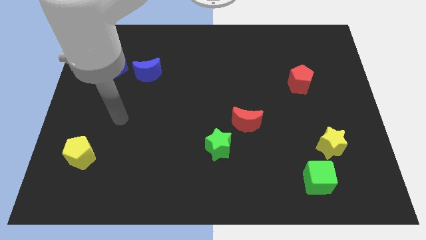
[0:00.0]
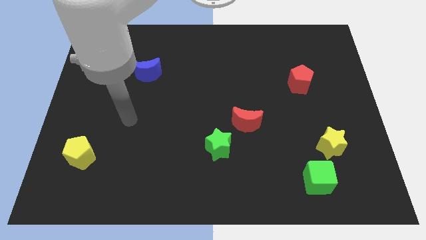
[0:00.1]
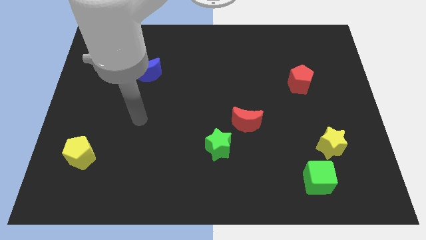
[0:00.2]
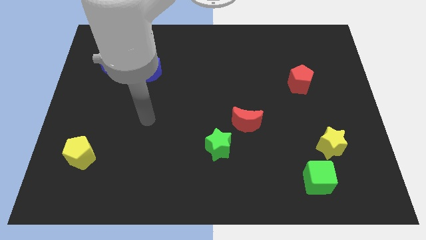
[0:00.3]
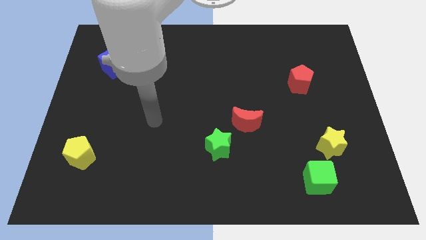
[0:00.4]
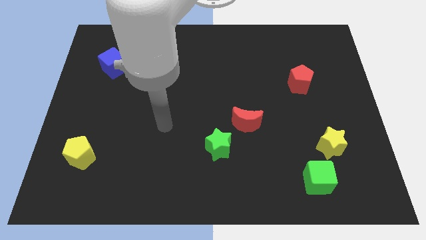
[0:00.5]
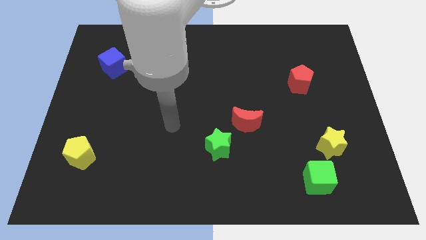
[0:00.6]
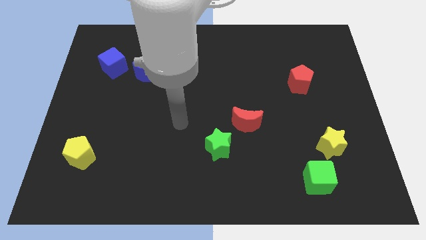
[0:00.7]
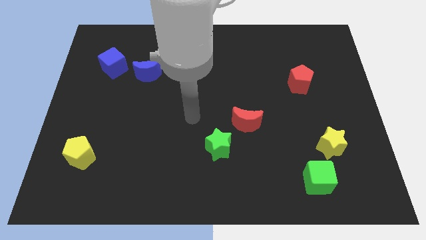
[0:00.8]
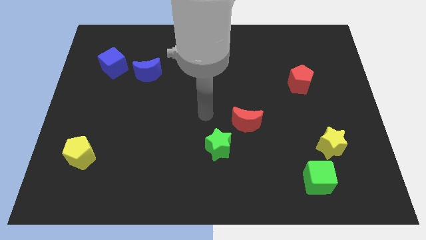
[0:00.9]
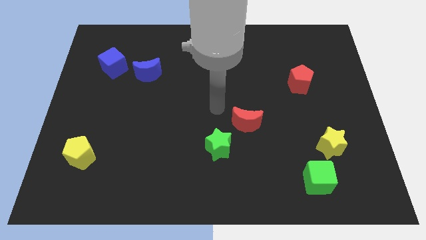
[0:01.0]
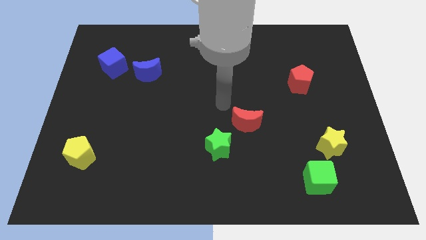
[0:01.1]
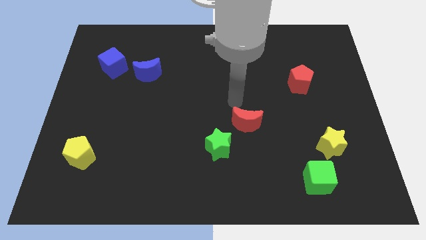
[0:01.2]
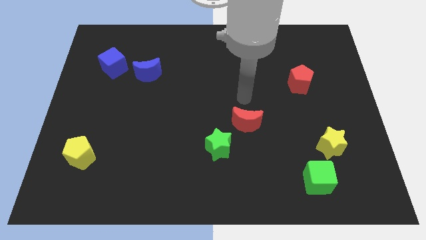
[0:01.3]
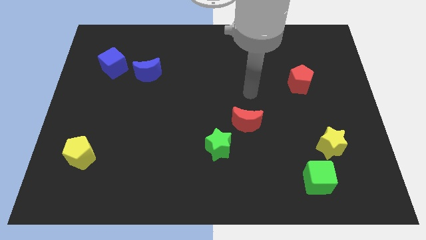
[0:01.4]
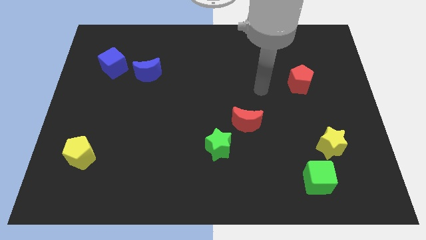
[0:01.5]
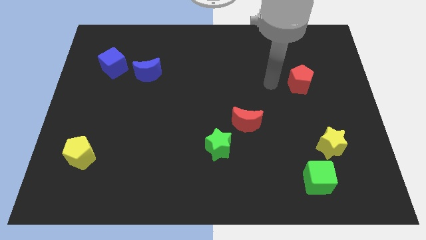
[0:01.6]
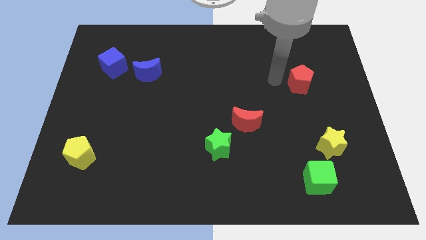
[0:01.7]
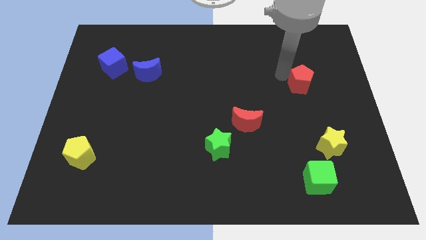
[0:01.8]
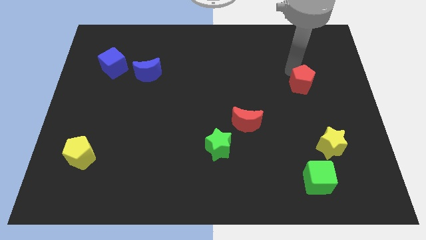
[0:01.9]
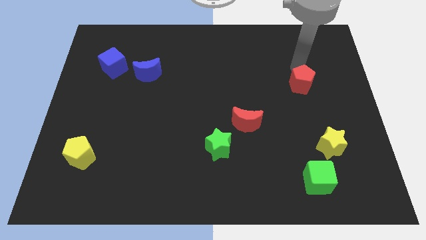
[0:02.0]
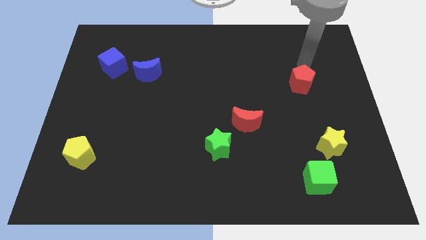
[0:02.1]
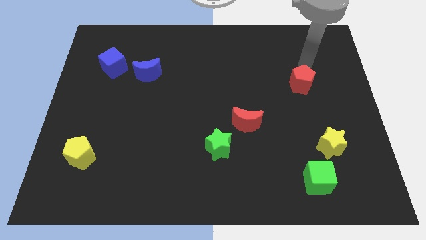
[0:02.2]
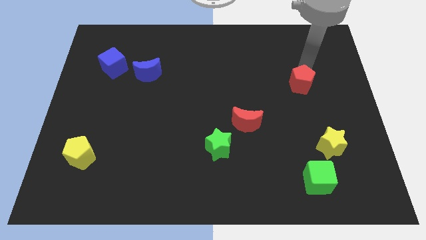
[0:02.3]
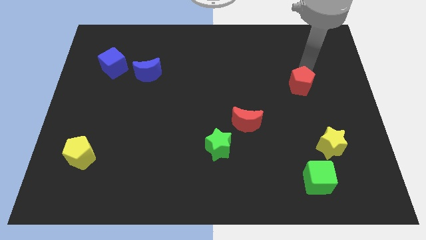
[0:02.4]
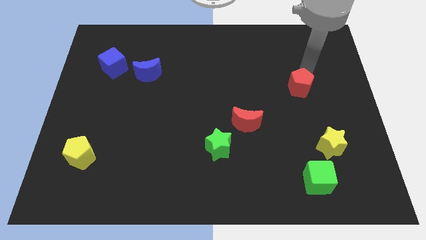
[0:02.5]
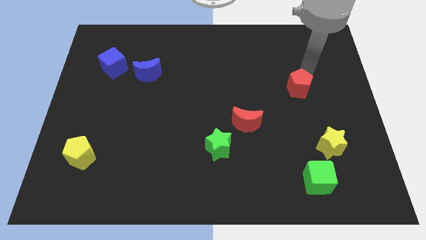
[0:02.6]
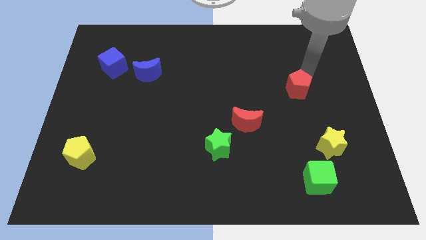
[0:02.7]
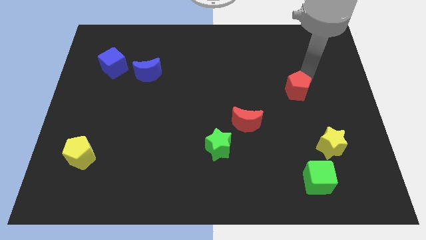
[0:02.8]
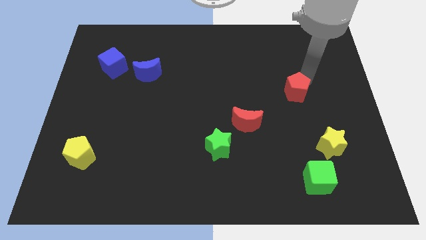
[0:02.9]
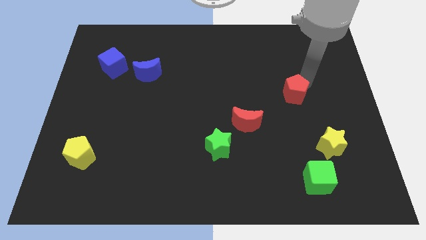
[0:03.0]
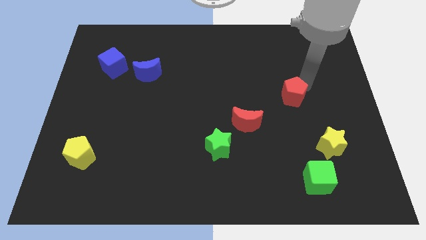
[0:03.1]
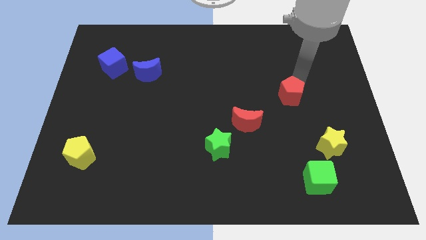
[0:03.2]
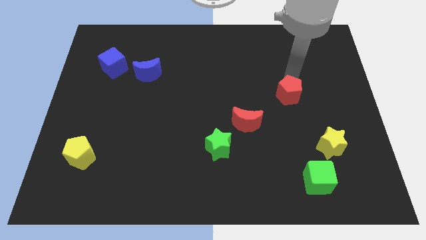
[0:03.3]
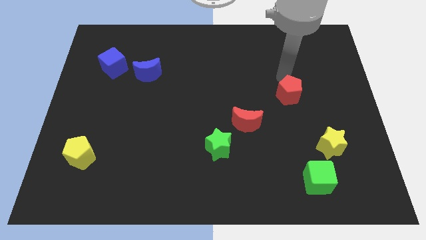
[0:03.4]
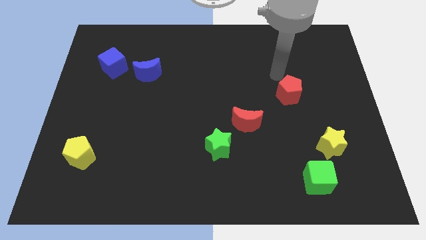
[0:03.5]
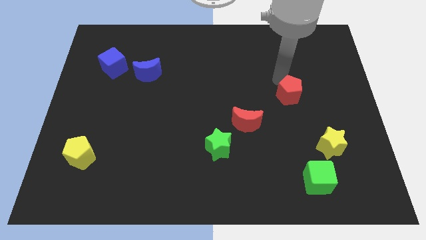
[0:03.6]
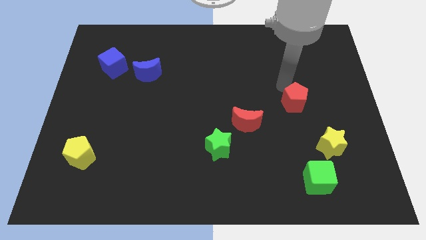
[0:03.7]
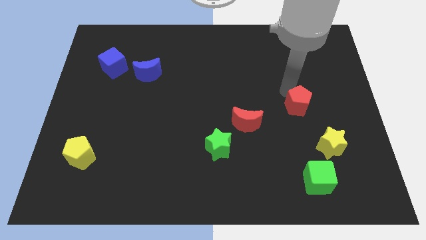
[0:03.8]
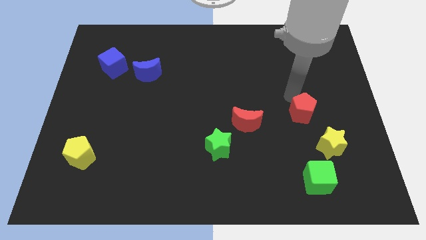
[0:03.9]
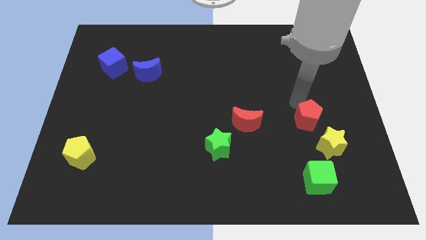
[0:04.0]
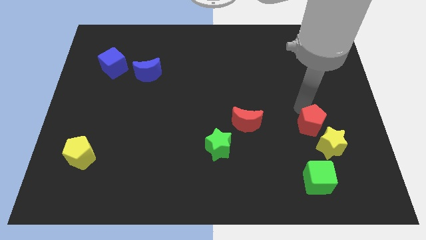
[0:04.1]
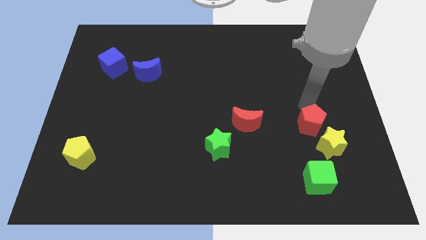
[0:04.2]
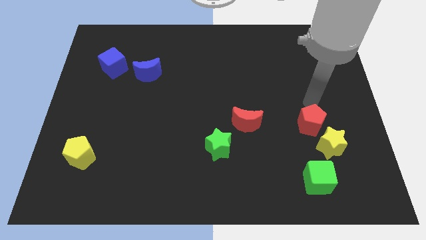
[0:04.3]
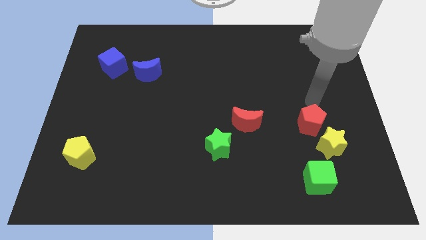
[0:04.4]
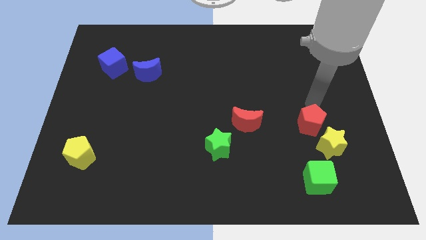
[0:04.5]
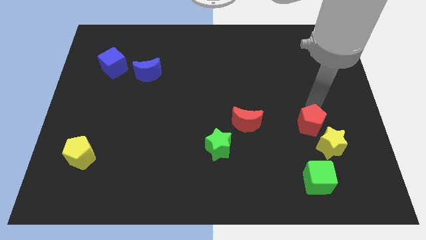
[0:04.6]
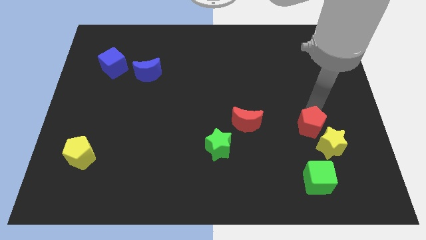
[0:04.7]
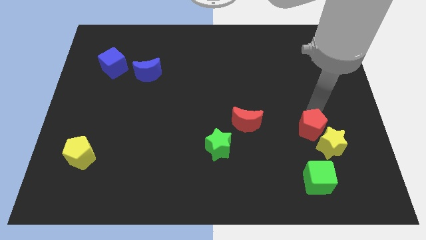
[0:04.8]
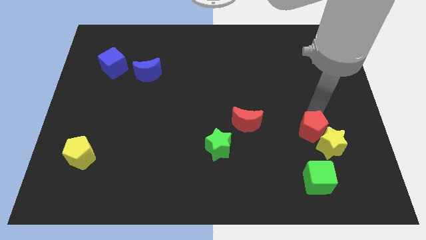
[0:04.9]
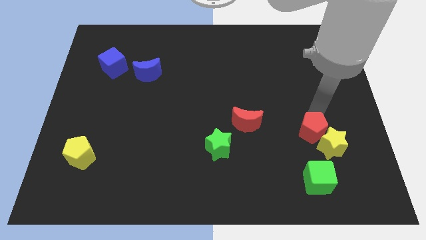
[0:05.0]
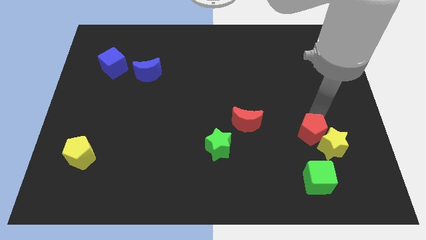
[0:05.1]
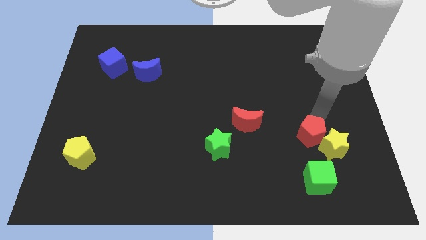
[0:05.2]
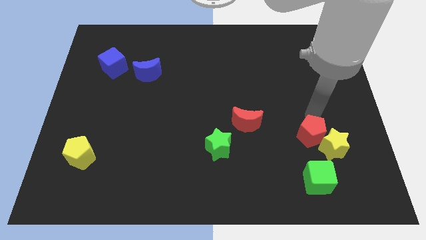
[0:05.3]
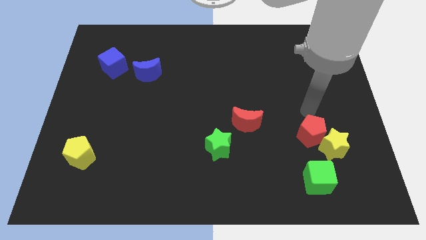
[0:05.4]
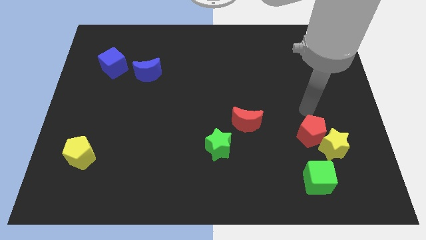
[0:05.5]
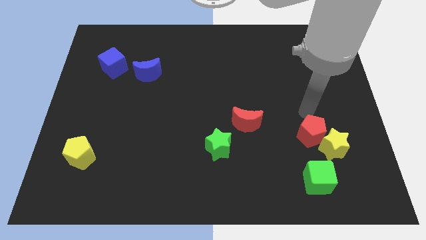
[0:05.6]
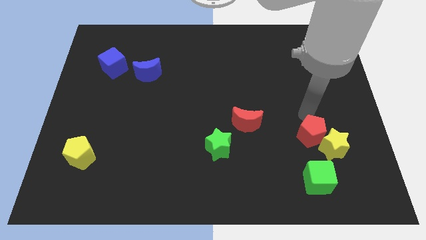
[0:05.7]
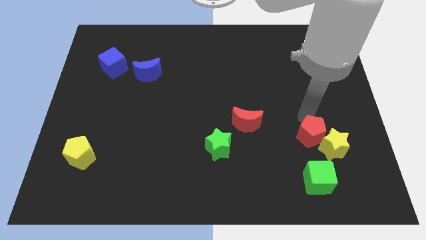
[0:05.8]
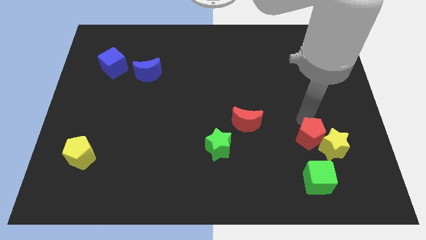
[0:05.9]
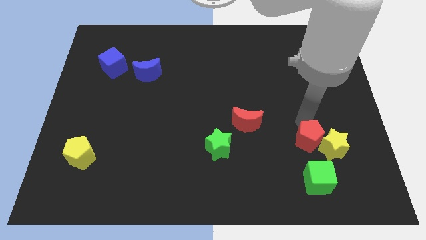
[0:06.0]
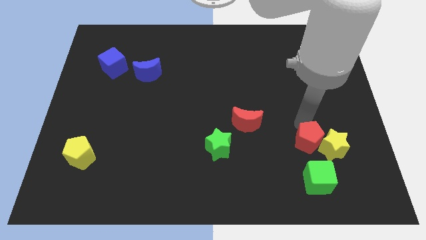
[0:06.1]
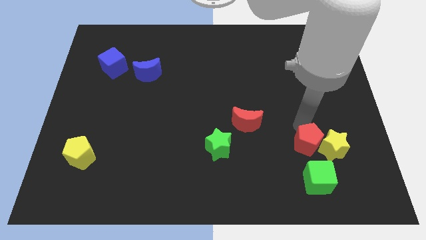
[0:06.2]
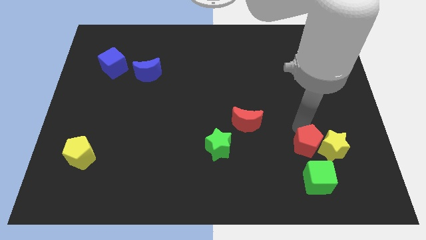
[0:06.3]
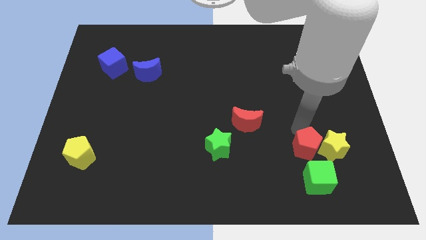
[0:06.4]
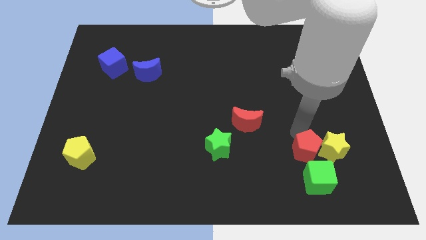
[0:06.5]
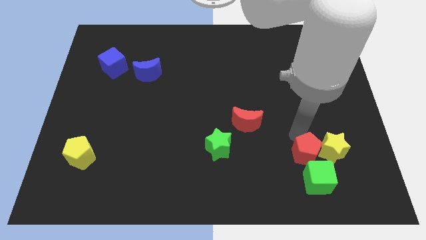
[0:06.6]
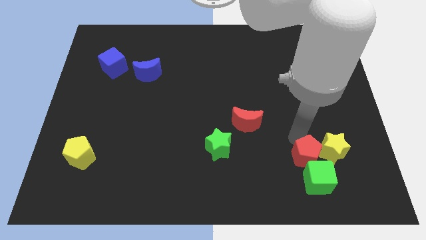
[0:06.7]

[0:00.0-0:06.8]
push the red pentagon towards the green cube
